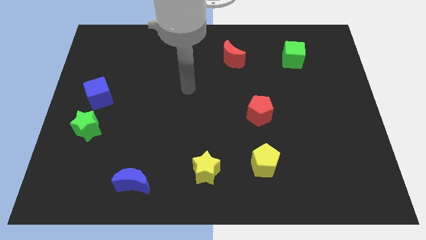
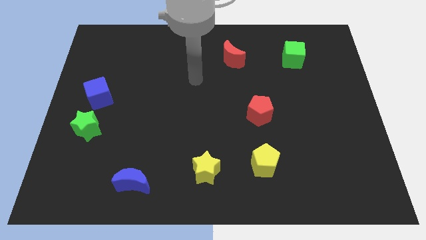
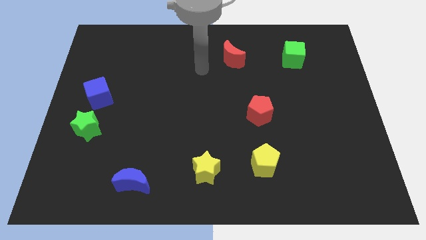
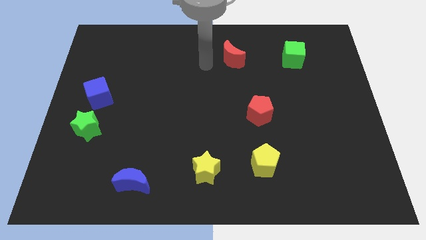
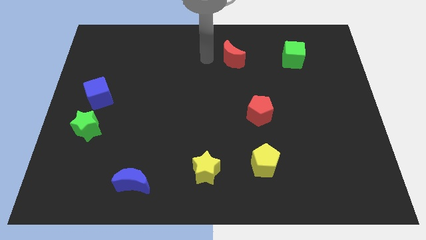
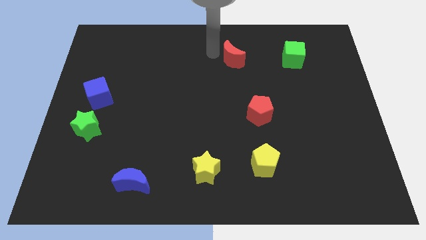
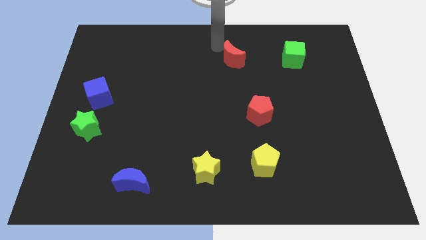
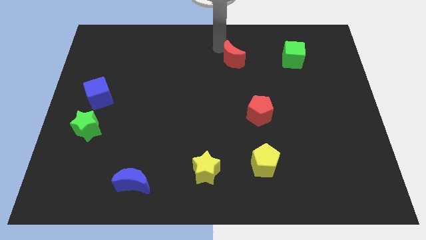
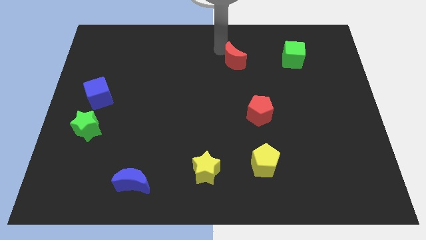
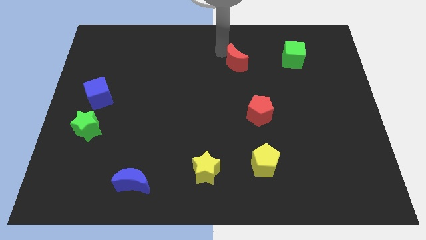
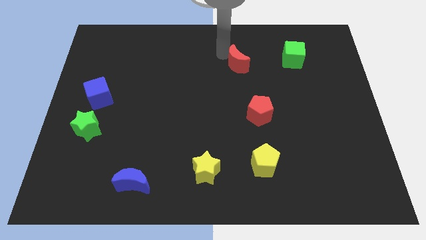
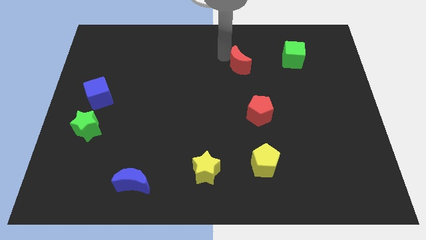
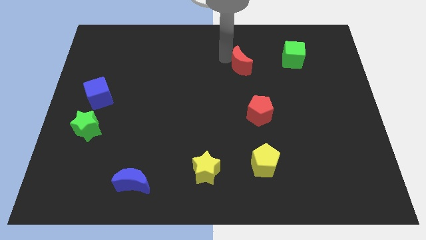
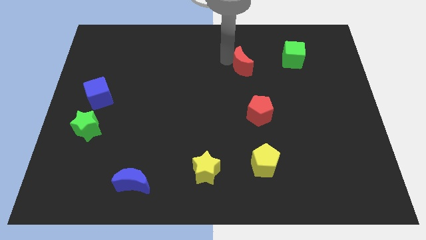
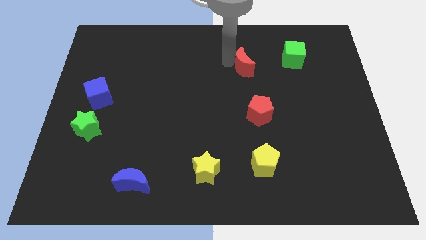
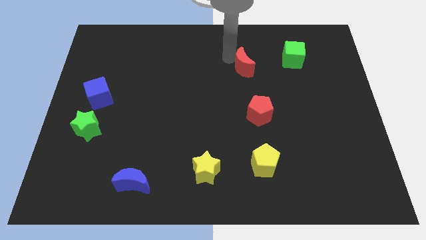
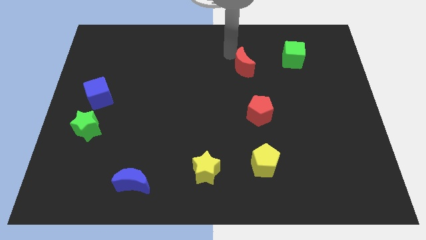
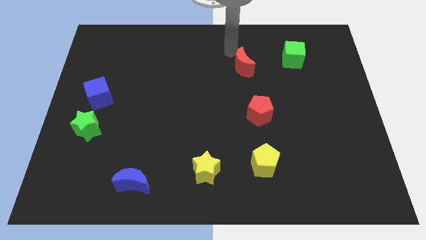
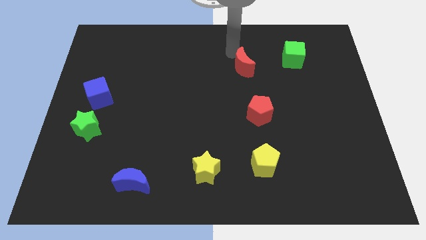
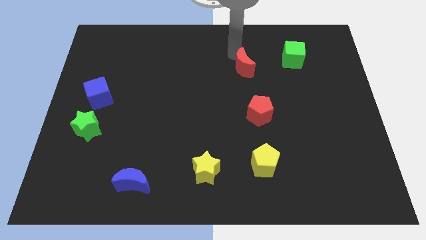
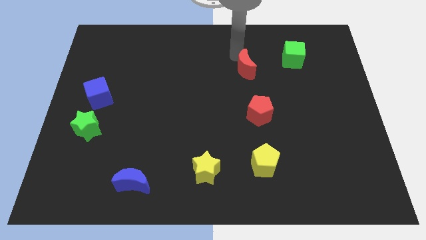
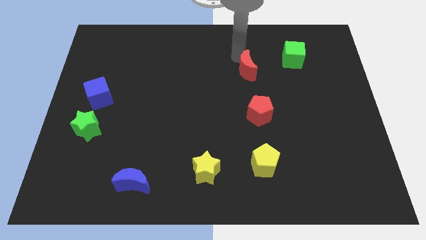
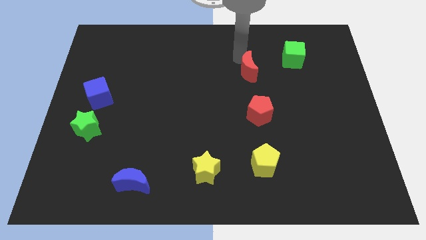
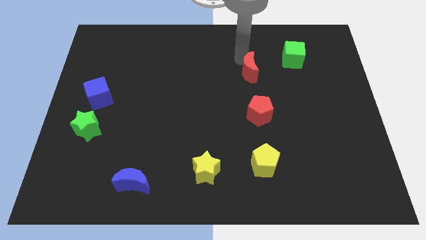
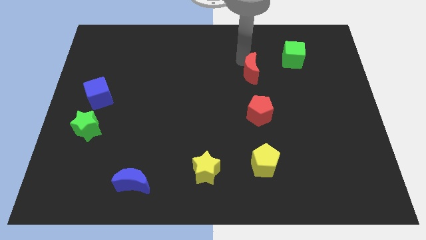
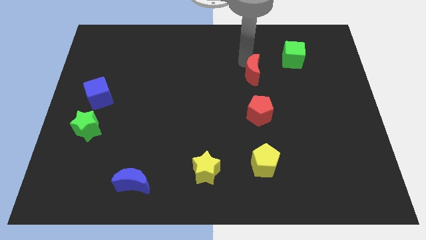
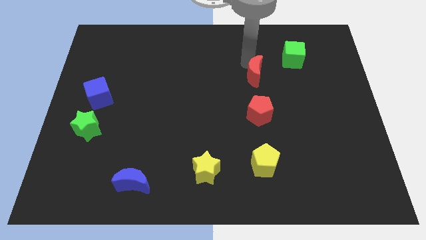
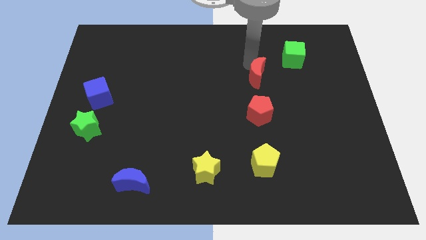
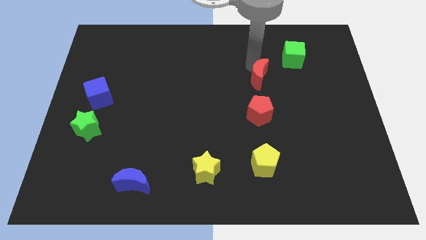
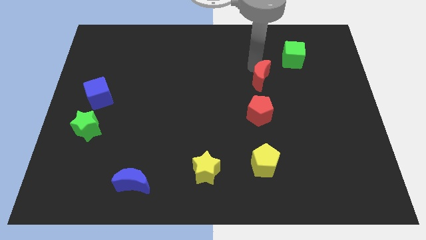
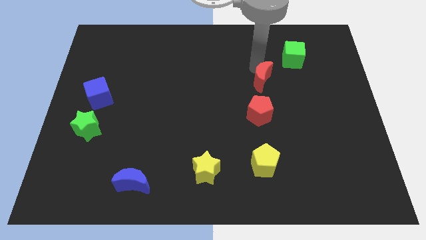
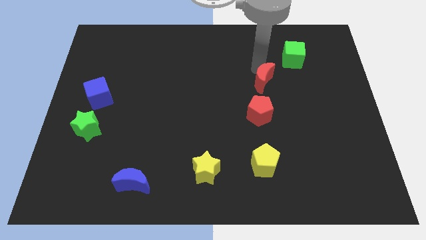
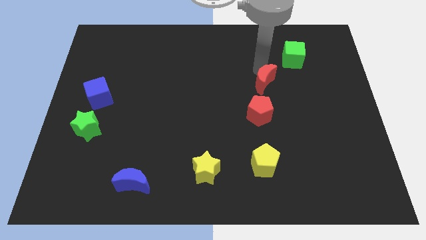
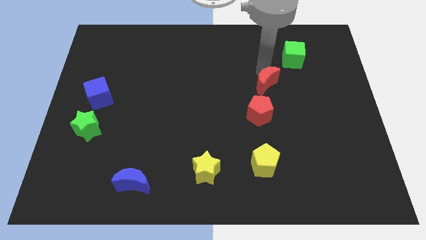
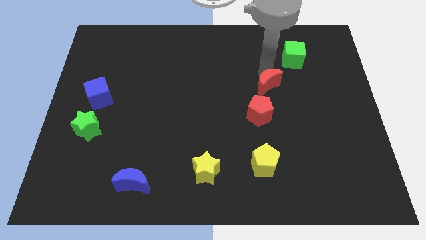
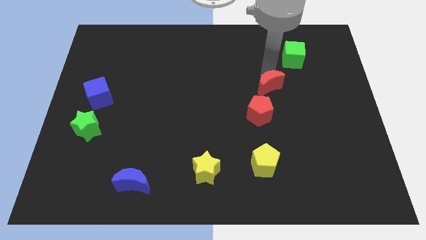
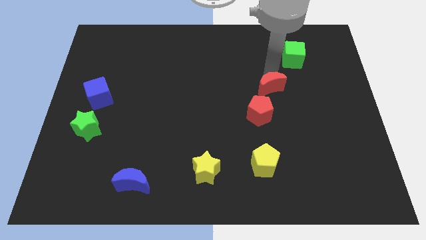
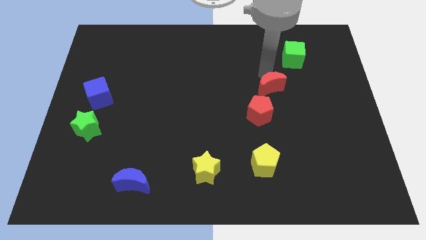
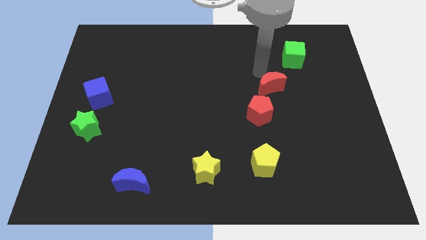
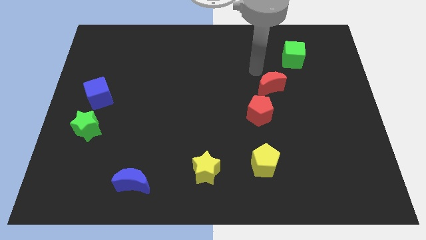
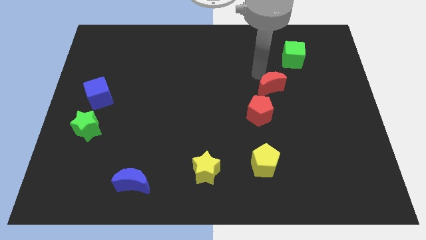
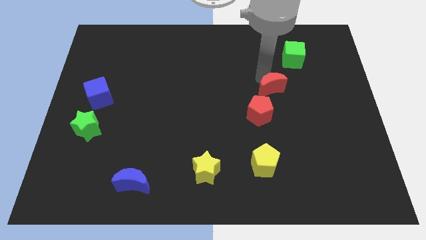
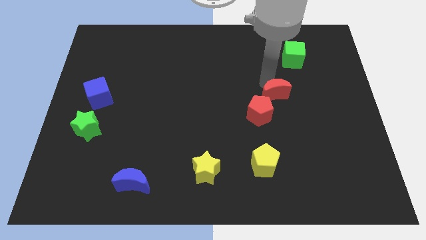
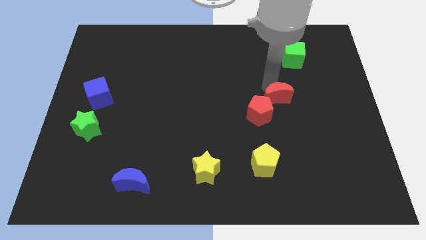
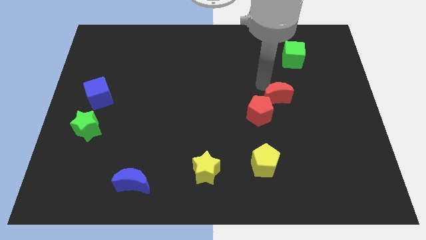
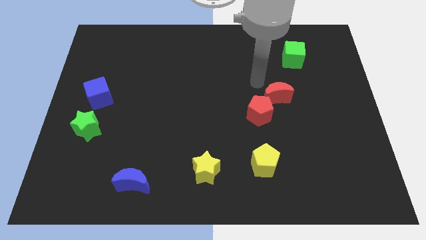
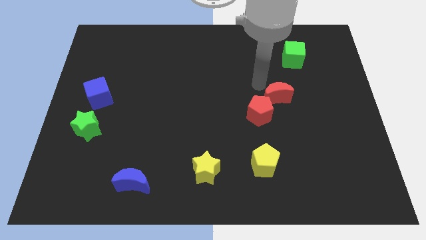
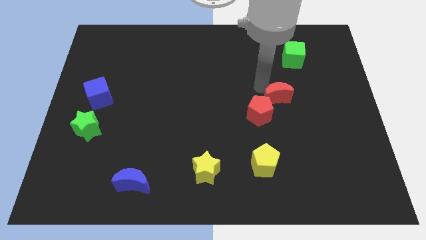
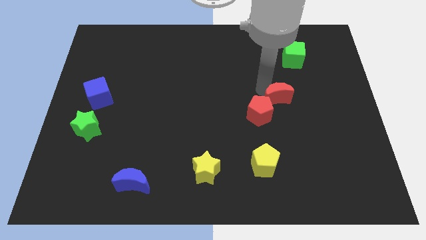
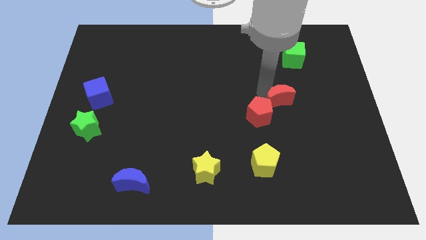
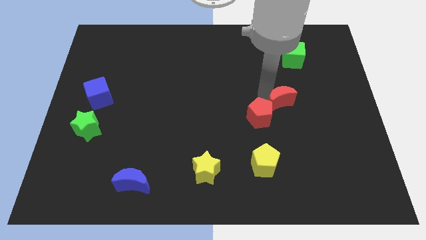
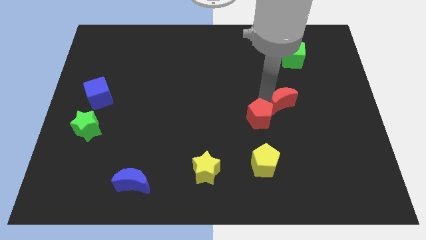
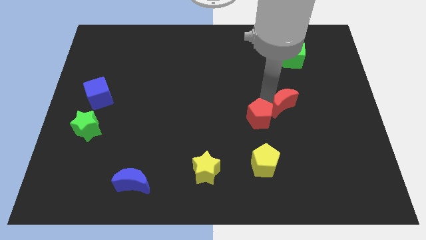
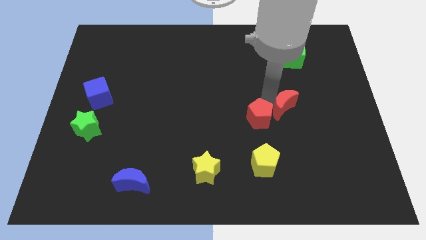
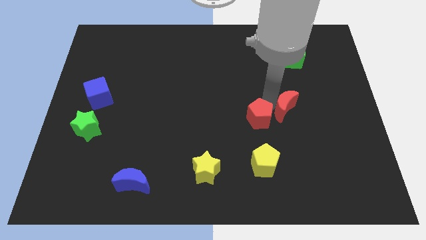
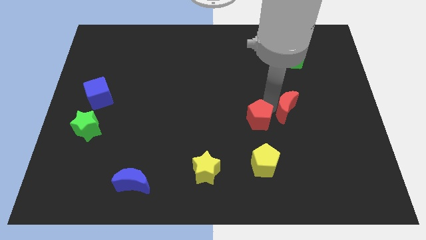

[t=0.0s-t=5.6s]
move the red moon downwards and to the right

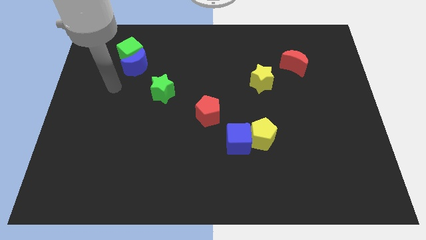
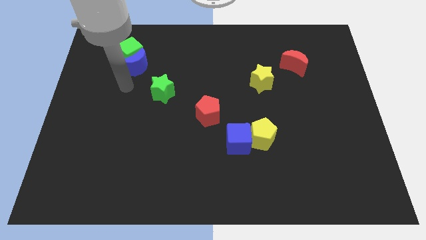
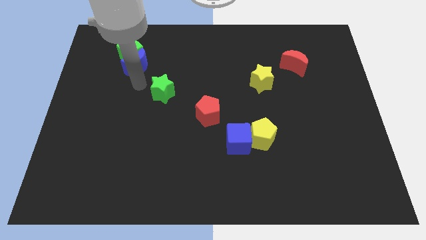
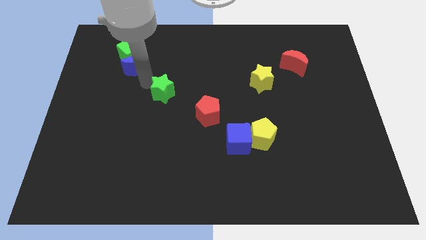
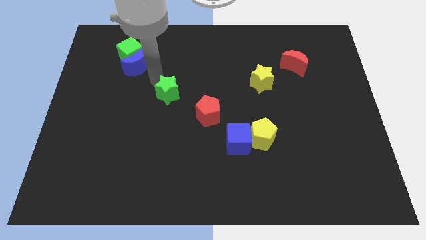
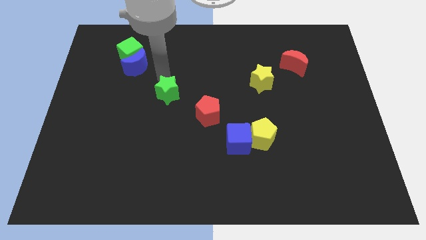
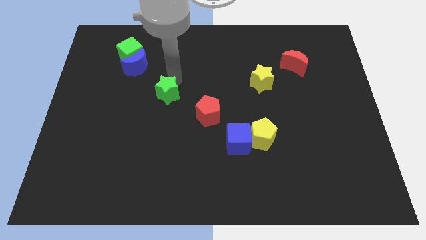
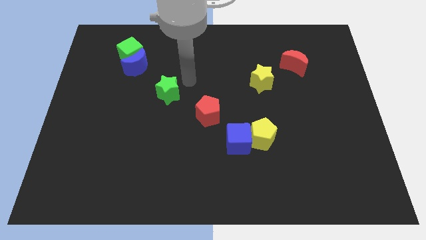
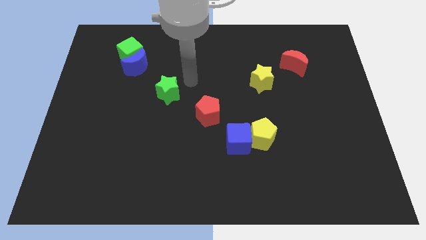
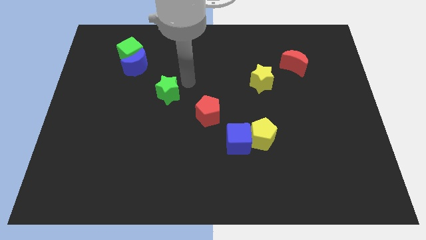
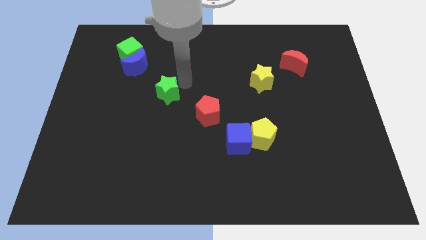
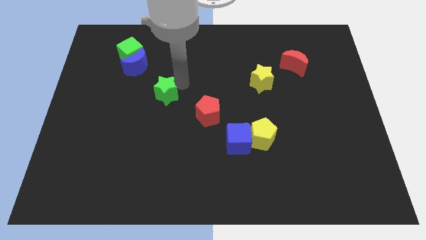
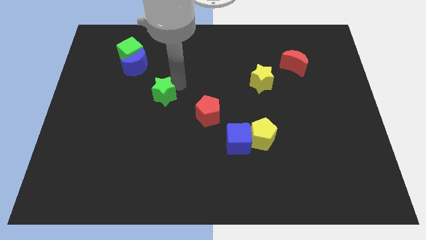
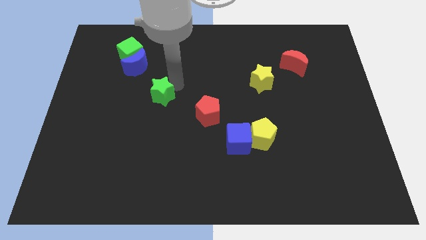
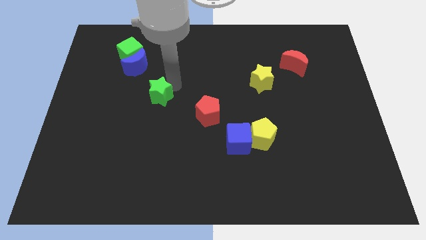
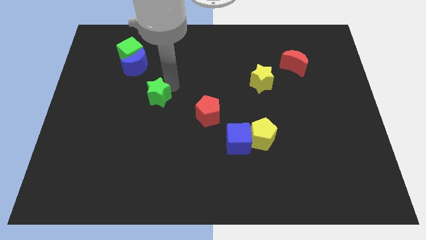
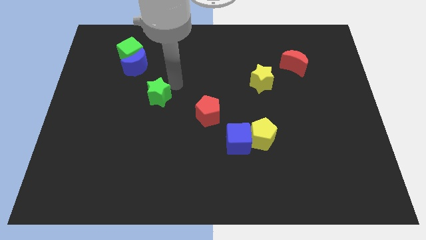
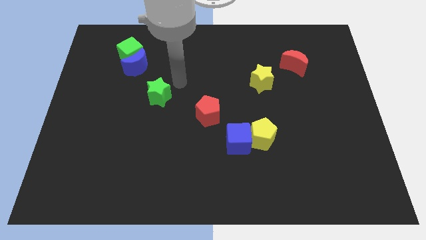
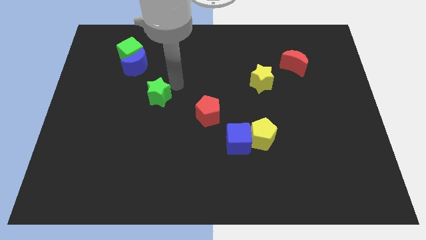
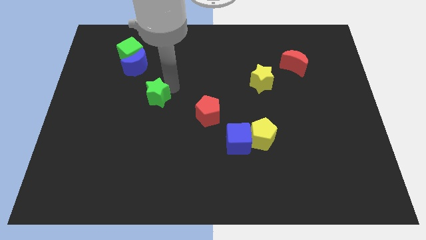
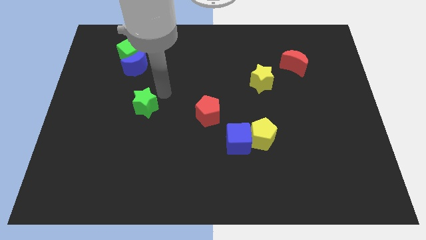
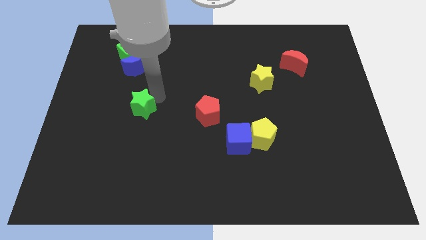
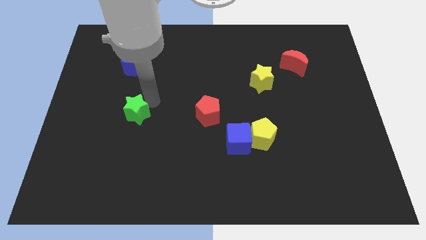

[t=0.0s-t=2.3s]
push the green star a little bit down and then to the left
